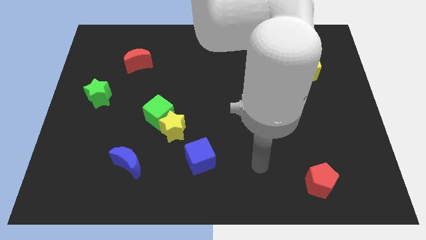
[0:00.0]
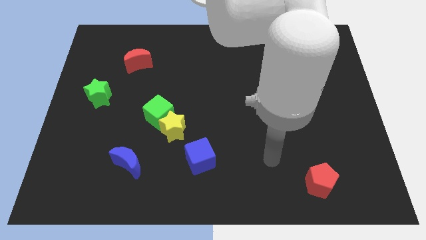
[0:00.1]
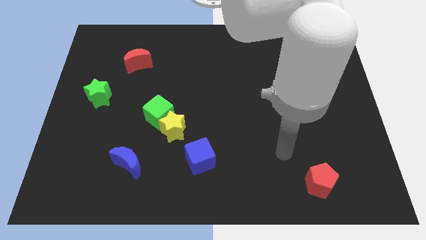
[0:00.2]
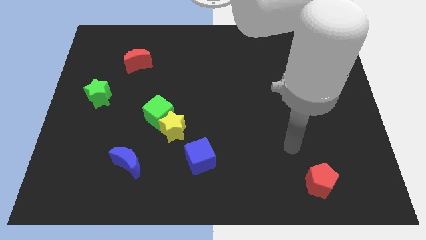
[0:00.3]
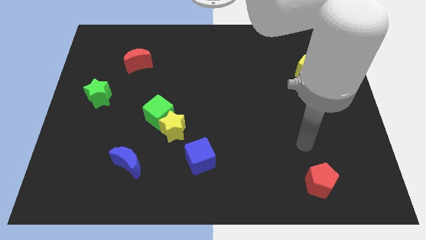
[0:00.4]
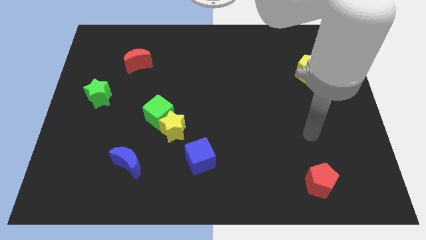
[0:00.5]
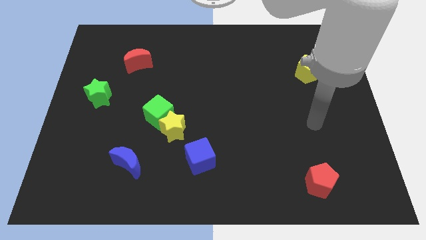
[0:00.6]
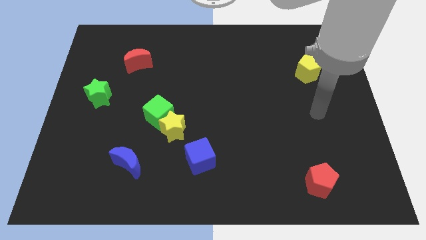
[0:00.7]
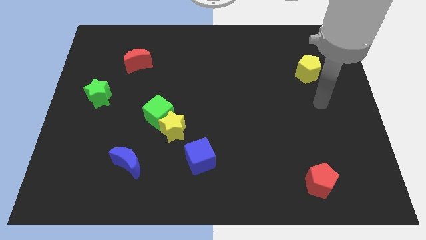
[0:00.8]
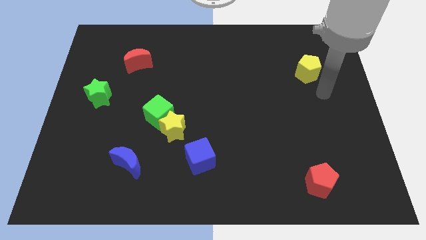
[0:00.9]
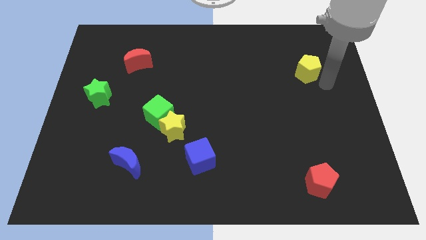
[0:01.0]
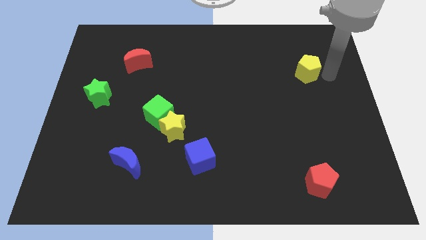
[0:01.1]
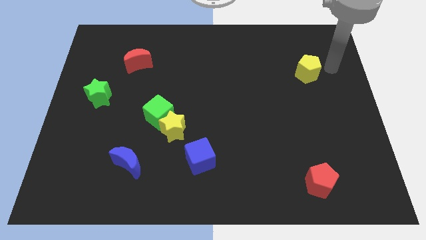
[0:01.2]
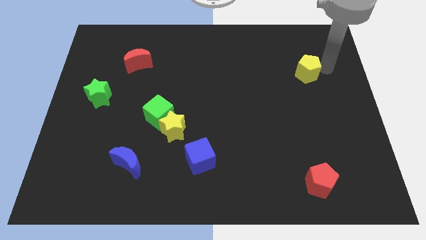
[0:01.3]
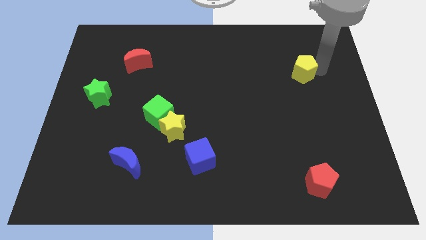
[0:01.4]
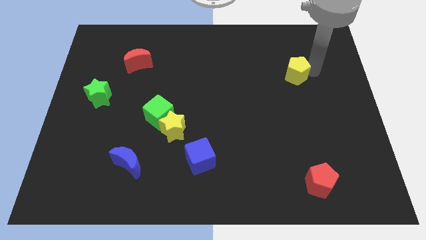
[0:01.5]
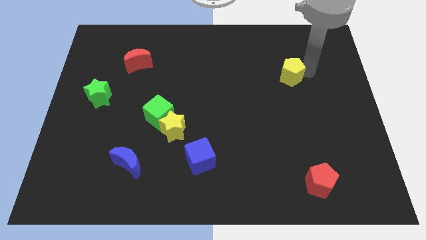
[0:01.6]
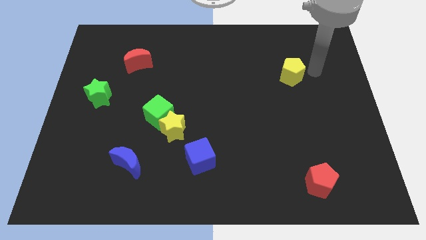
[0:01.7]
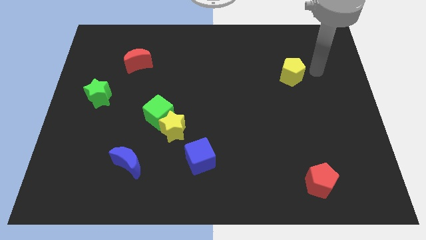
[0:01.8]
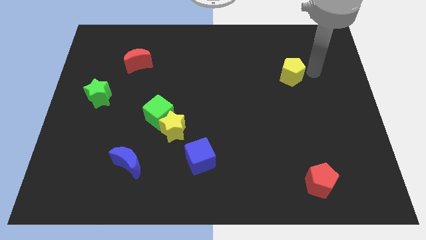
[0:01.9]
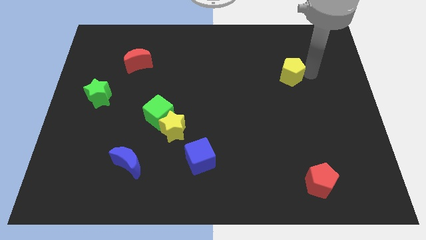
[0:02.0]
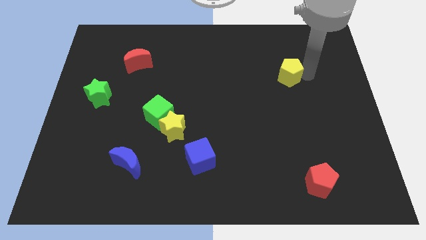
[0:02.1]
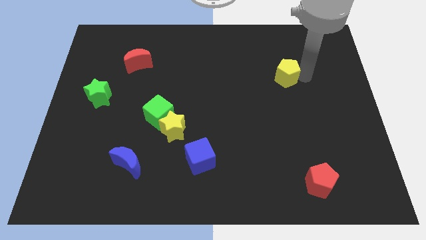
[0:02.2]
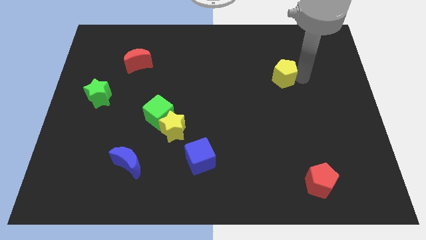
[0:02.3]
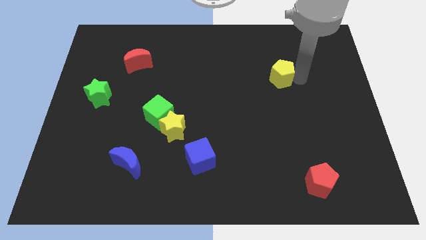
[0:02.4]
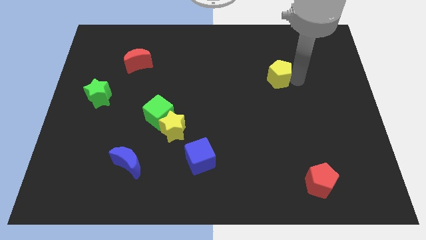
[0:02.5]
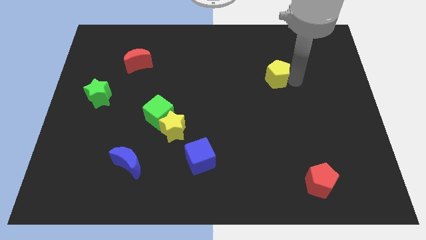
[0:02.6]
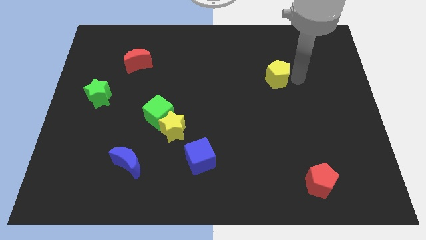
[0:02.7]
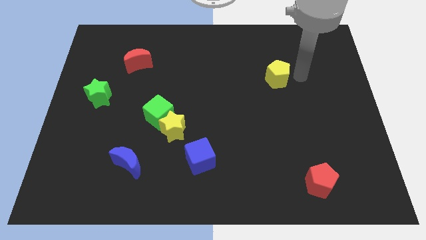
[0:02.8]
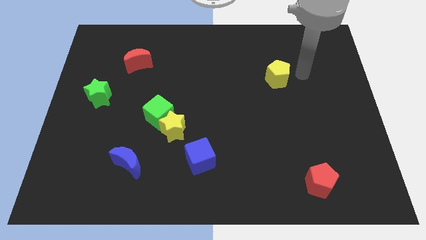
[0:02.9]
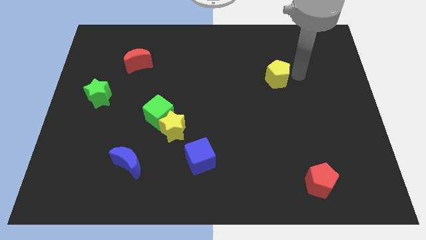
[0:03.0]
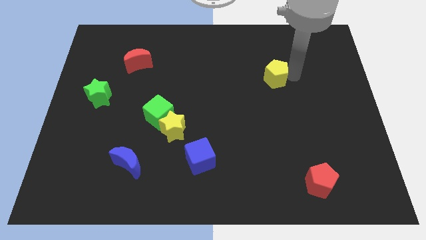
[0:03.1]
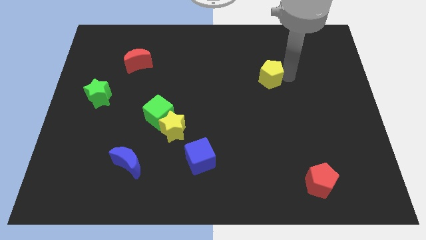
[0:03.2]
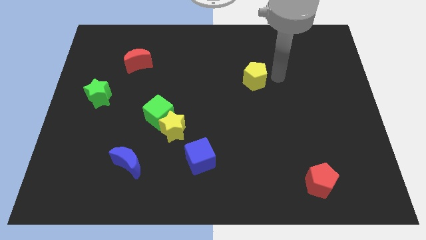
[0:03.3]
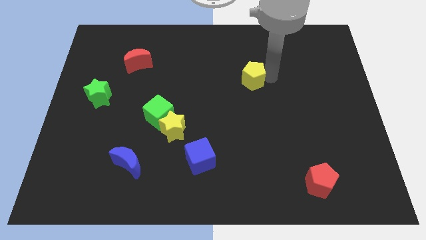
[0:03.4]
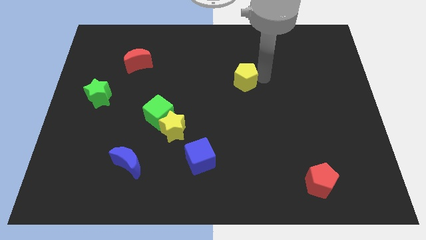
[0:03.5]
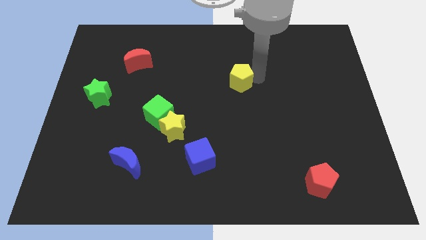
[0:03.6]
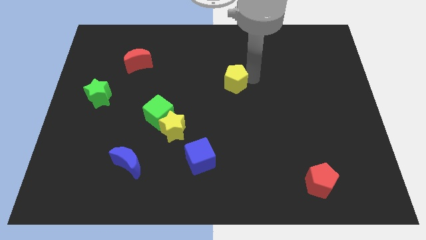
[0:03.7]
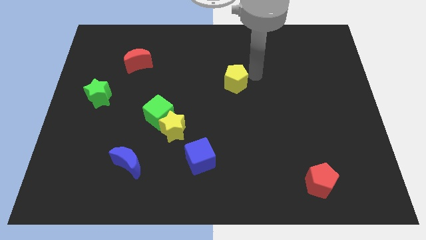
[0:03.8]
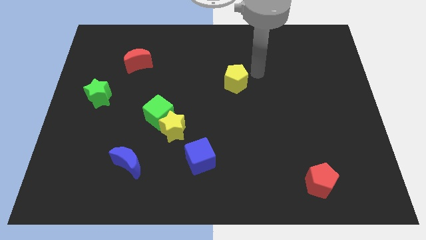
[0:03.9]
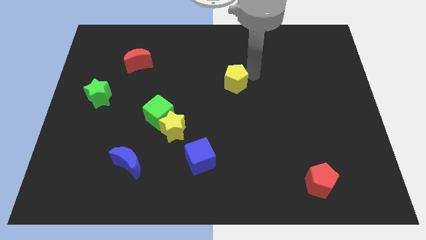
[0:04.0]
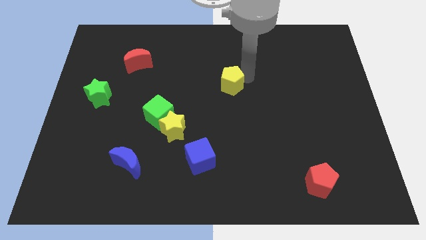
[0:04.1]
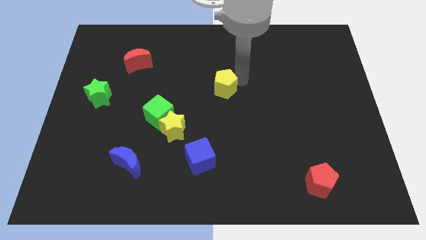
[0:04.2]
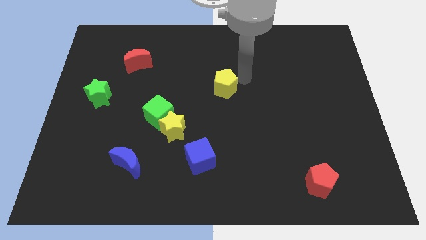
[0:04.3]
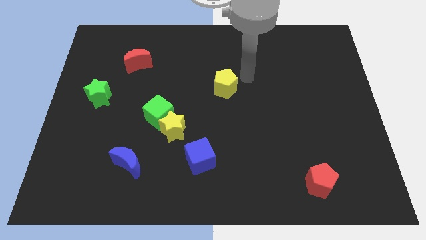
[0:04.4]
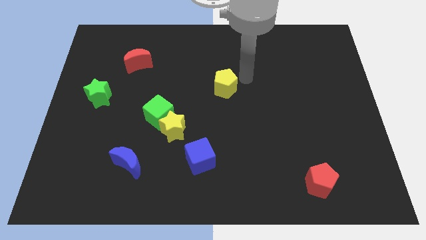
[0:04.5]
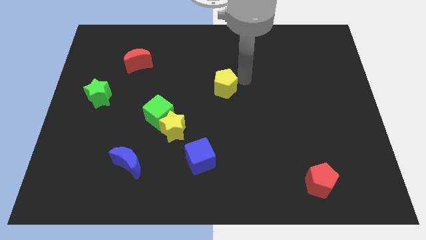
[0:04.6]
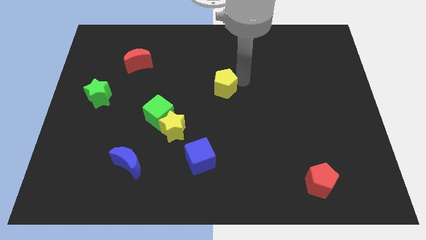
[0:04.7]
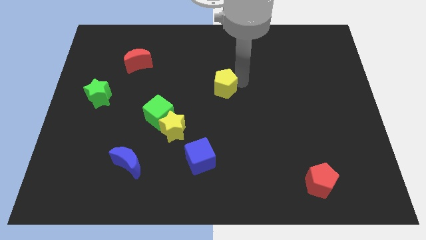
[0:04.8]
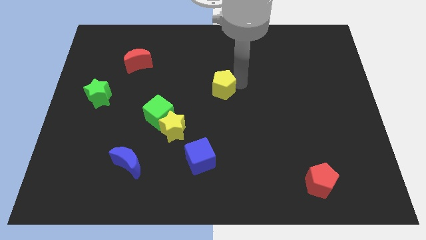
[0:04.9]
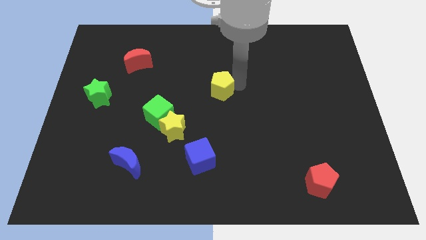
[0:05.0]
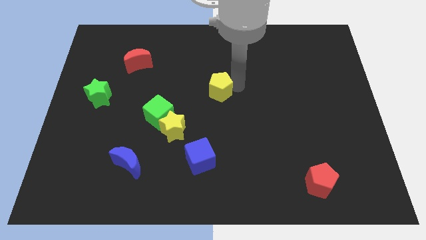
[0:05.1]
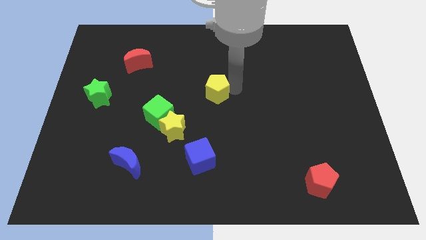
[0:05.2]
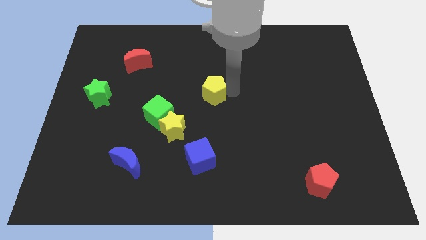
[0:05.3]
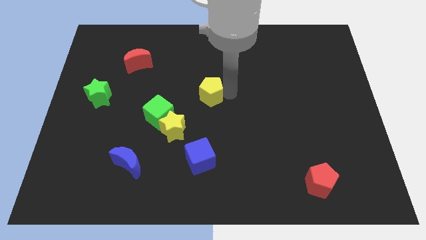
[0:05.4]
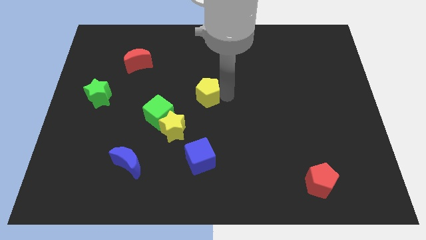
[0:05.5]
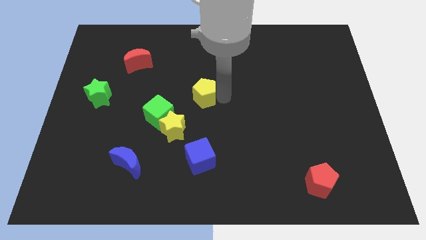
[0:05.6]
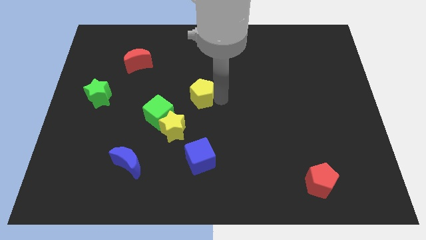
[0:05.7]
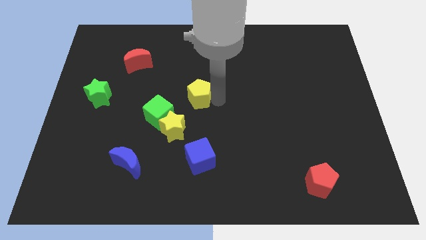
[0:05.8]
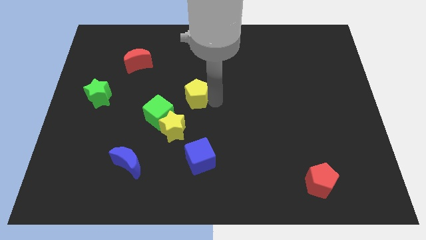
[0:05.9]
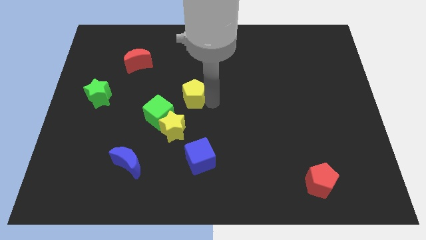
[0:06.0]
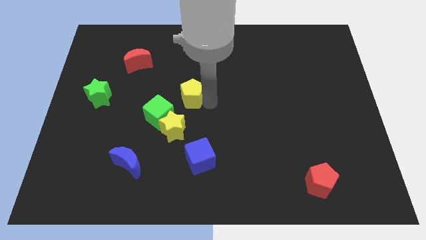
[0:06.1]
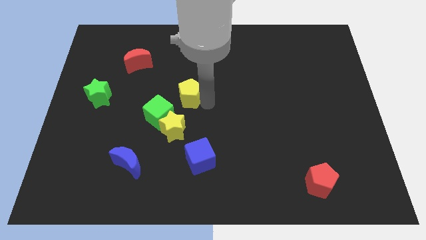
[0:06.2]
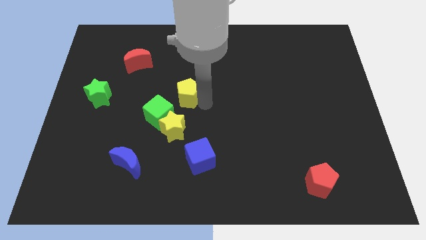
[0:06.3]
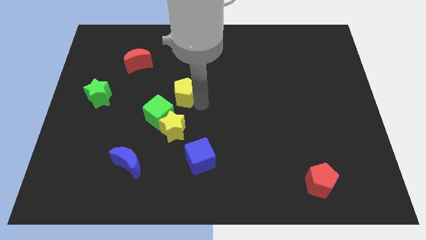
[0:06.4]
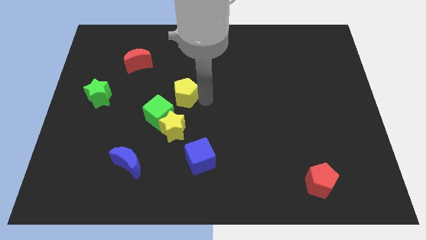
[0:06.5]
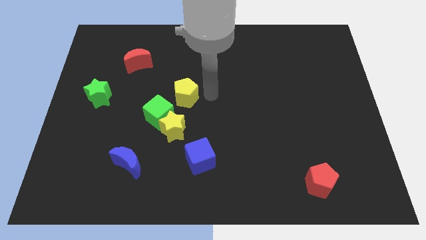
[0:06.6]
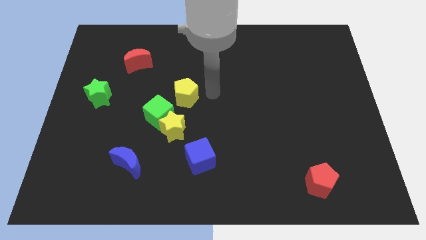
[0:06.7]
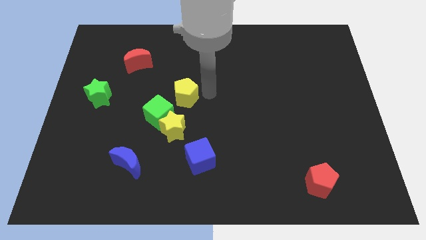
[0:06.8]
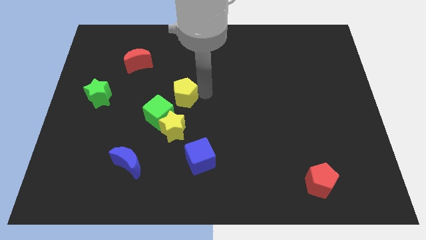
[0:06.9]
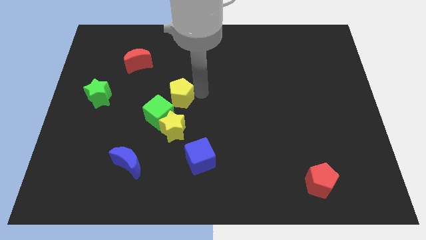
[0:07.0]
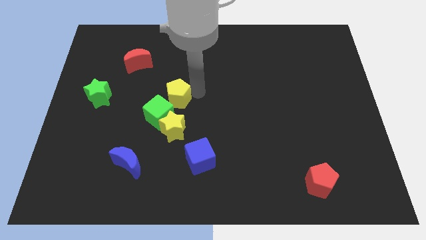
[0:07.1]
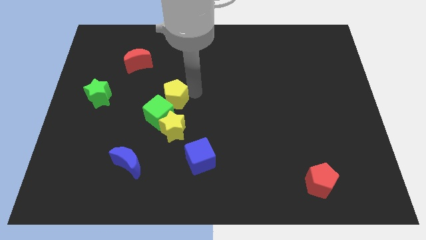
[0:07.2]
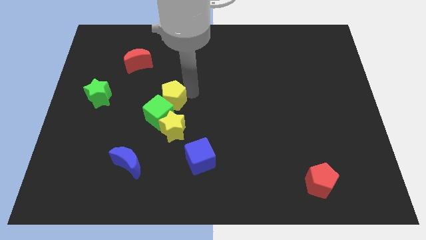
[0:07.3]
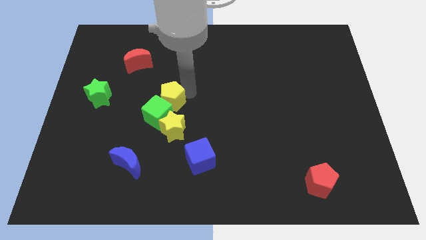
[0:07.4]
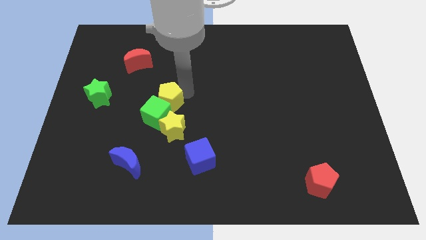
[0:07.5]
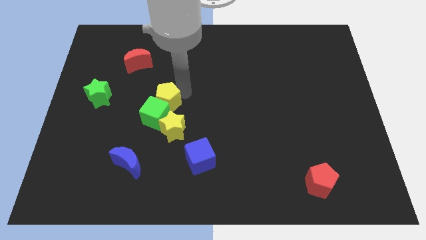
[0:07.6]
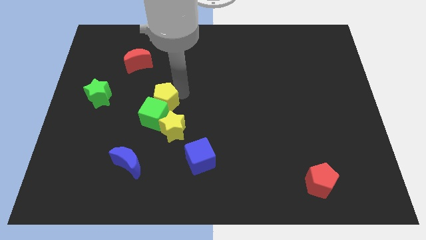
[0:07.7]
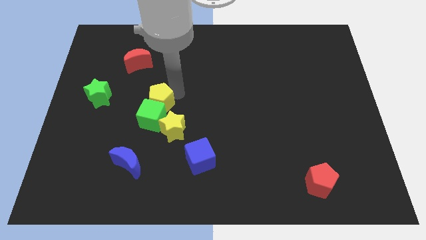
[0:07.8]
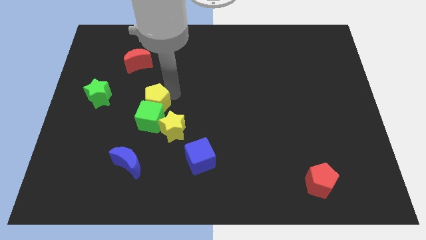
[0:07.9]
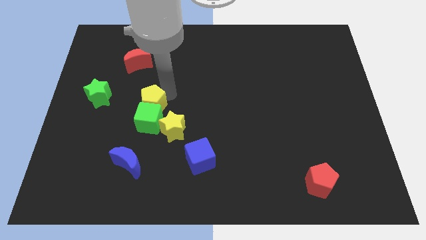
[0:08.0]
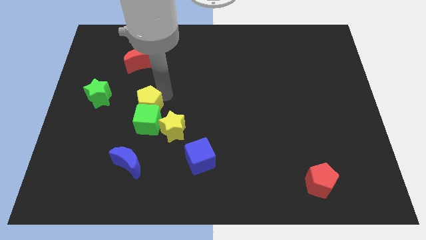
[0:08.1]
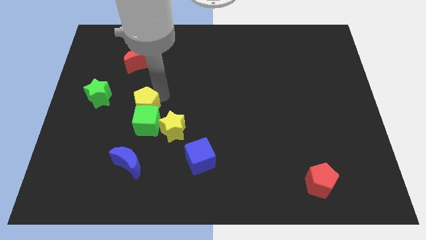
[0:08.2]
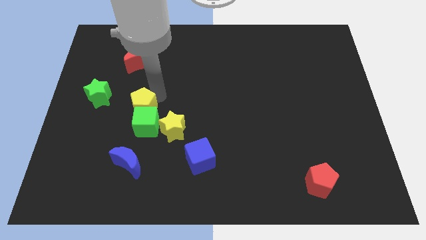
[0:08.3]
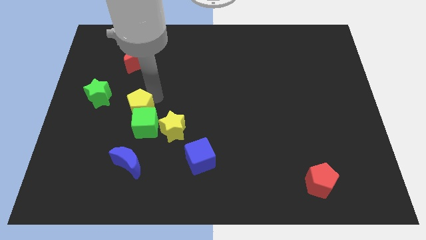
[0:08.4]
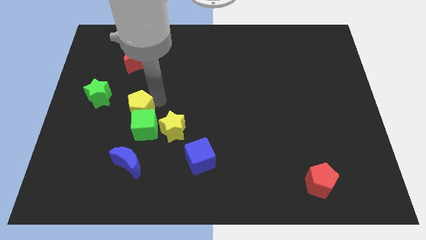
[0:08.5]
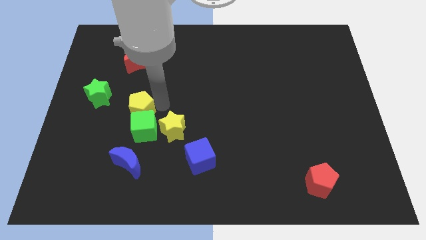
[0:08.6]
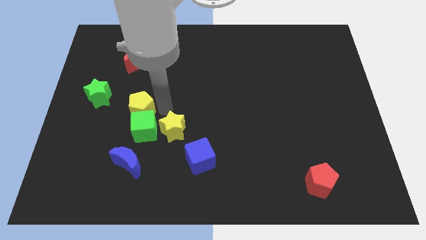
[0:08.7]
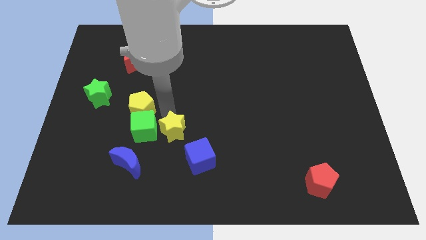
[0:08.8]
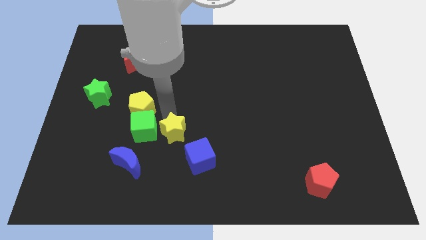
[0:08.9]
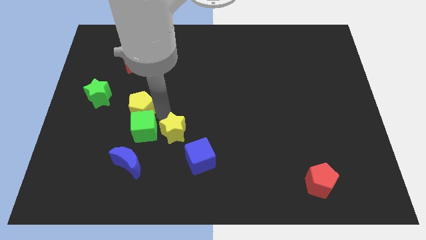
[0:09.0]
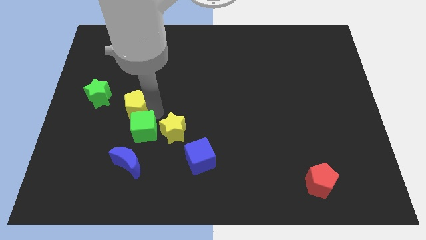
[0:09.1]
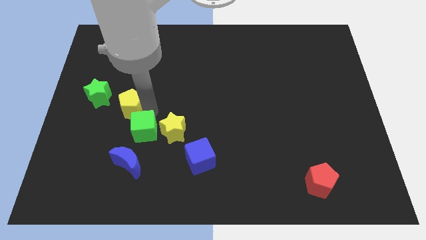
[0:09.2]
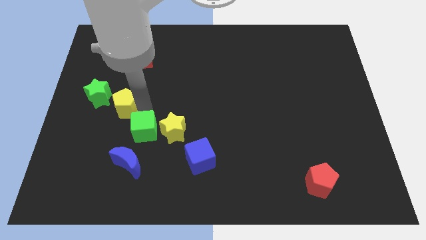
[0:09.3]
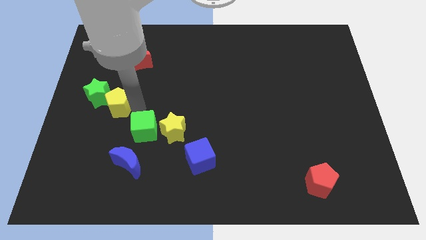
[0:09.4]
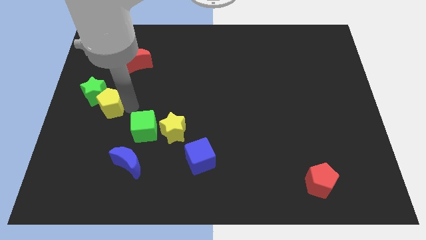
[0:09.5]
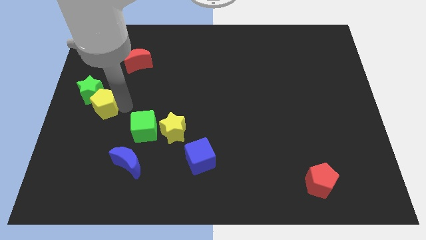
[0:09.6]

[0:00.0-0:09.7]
put the yellow pentagon to the center left
